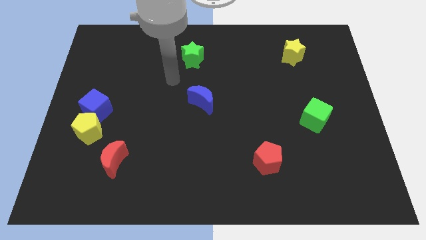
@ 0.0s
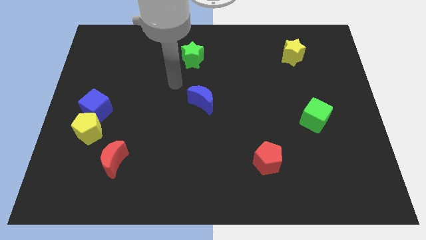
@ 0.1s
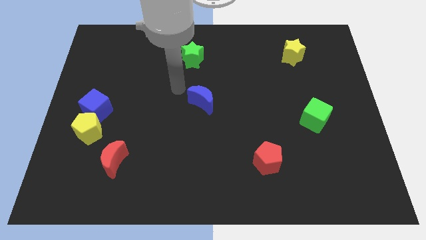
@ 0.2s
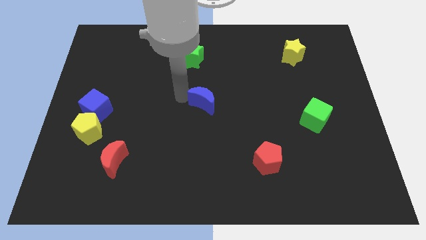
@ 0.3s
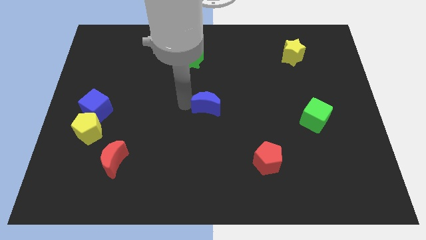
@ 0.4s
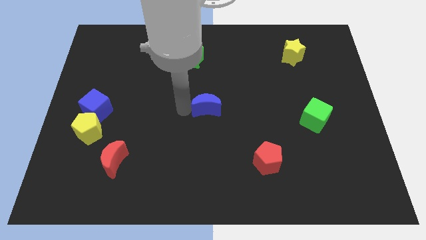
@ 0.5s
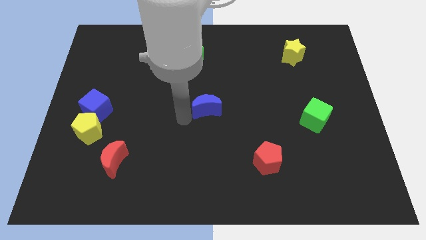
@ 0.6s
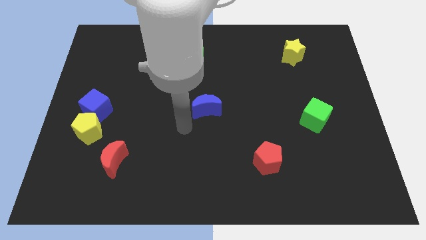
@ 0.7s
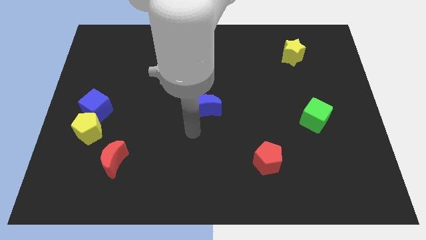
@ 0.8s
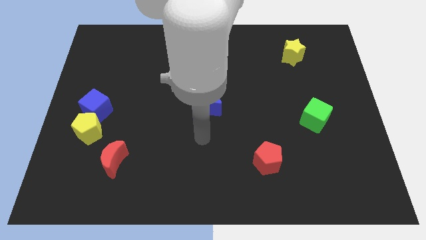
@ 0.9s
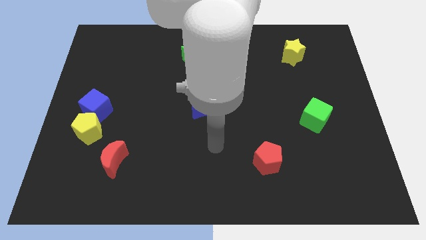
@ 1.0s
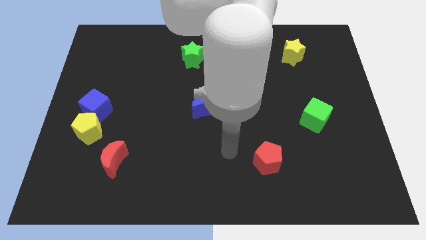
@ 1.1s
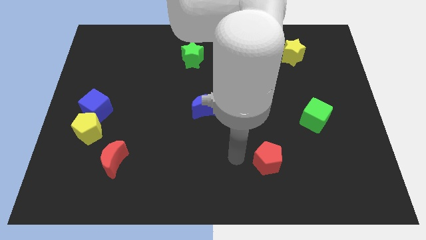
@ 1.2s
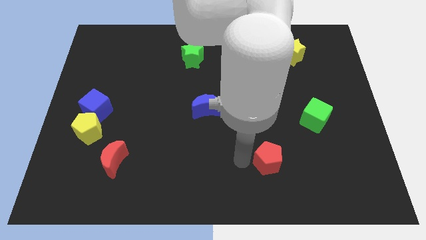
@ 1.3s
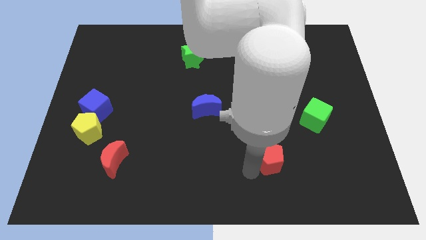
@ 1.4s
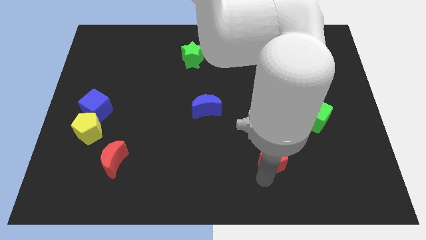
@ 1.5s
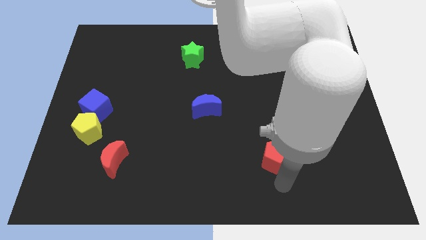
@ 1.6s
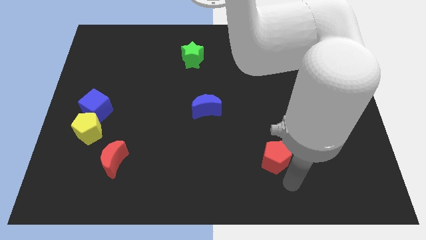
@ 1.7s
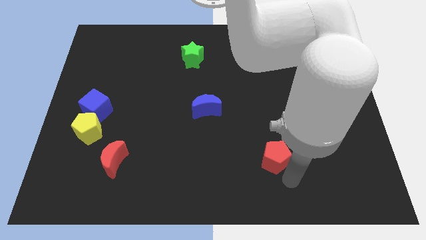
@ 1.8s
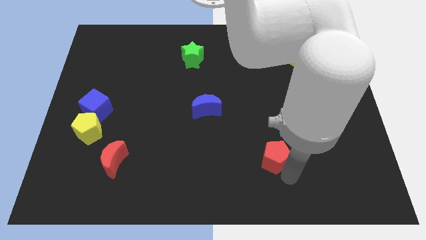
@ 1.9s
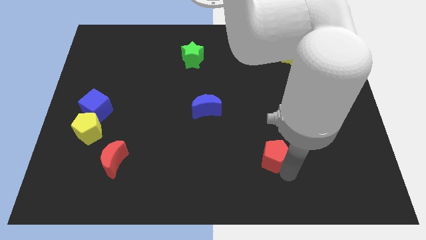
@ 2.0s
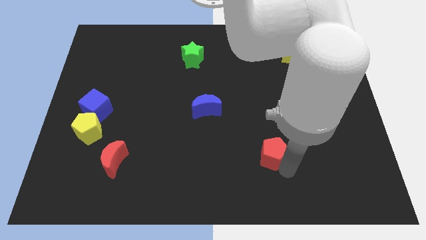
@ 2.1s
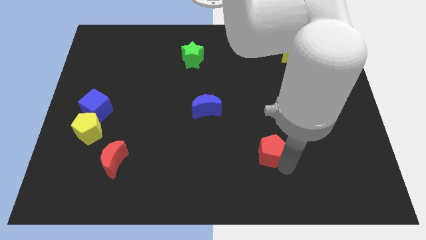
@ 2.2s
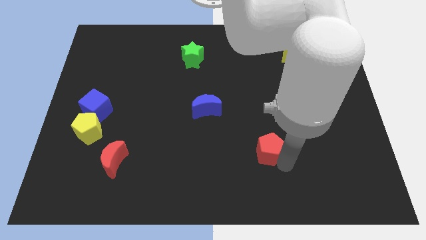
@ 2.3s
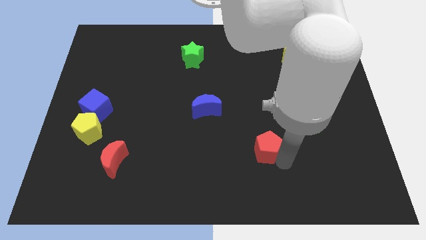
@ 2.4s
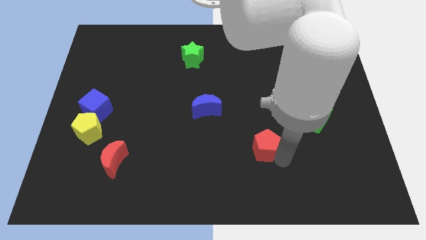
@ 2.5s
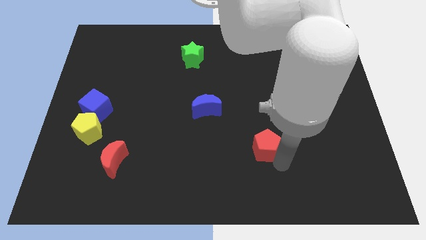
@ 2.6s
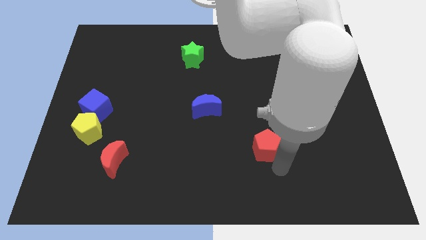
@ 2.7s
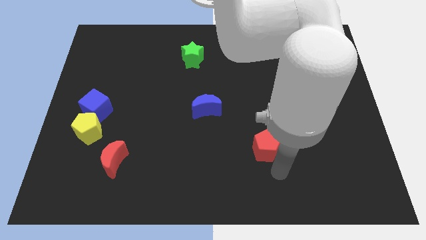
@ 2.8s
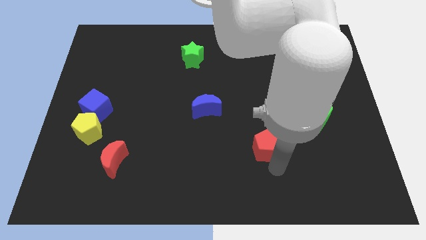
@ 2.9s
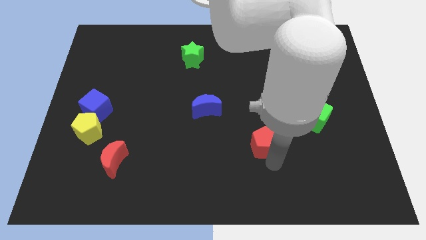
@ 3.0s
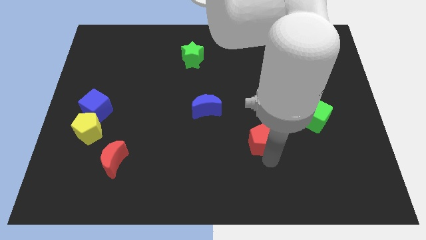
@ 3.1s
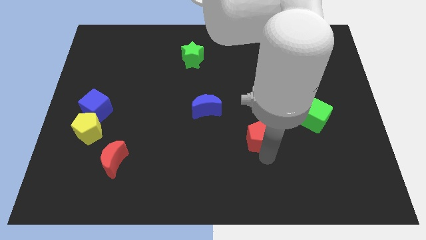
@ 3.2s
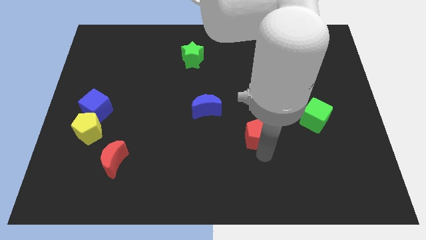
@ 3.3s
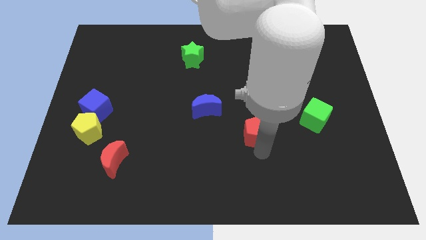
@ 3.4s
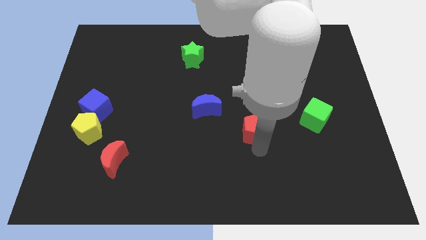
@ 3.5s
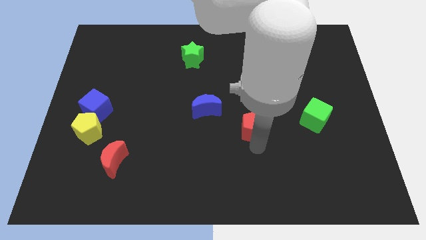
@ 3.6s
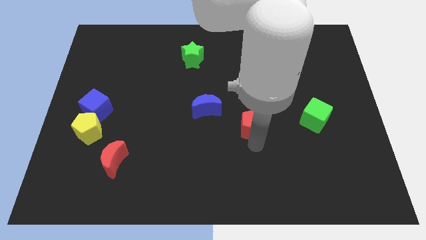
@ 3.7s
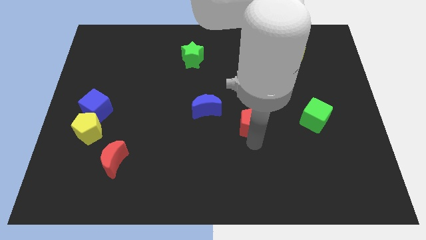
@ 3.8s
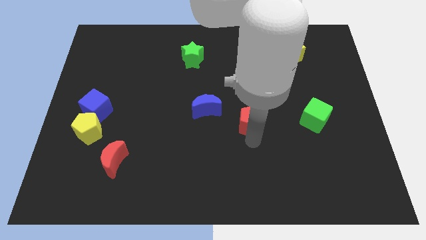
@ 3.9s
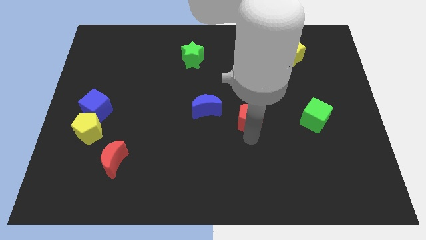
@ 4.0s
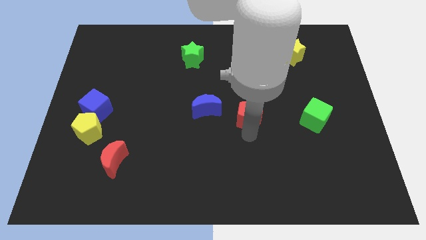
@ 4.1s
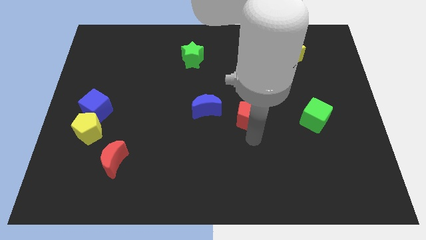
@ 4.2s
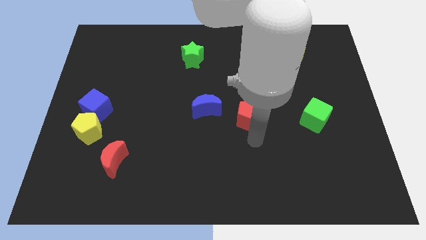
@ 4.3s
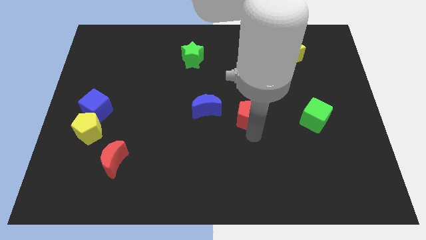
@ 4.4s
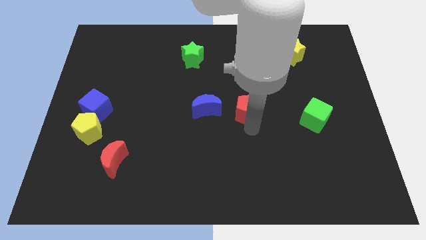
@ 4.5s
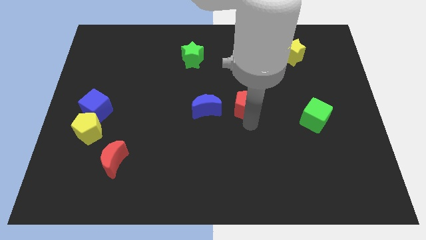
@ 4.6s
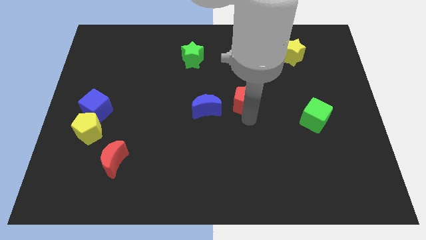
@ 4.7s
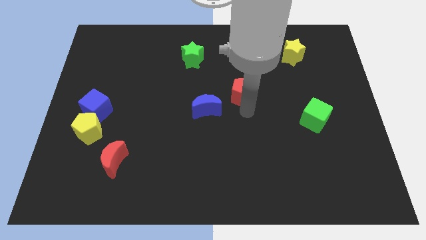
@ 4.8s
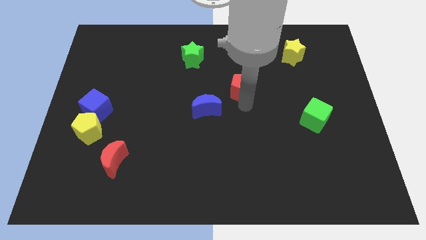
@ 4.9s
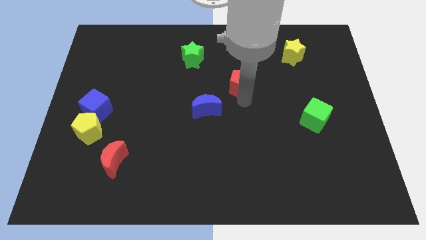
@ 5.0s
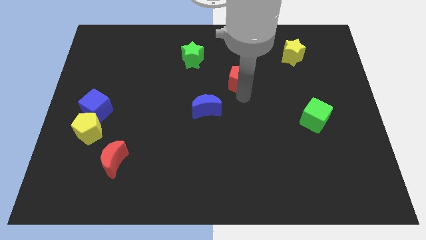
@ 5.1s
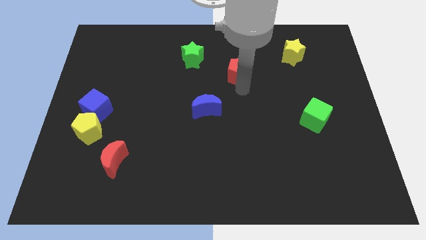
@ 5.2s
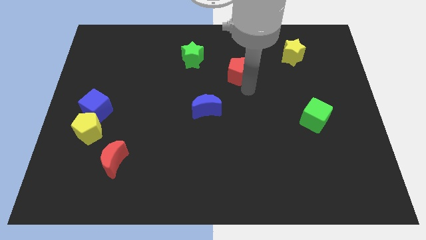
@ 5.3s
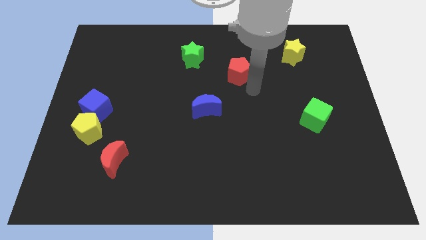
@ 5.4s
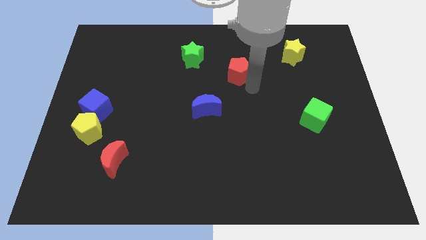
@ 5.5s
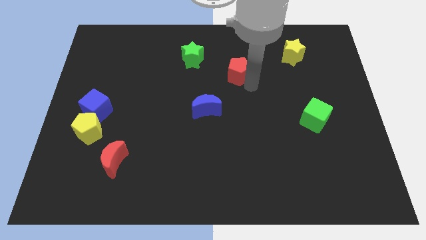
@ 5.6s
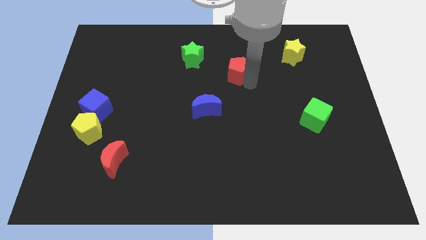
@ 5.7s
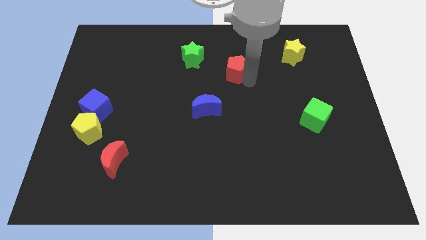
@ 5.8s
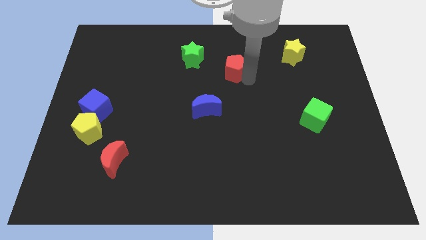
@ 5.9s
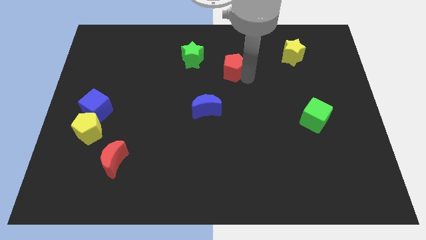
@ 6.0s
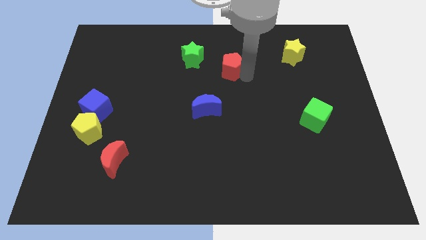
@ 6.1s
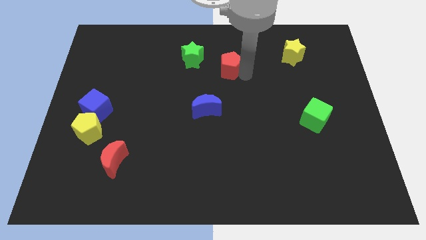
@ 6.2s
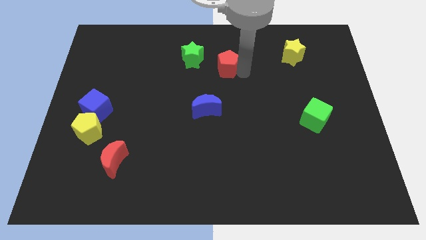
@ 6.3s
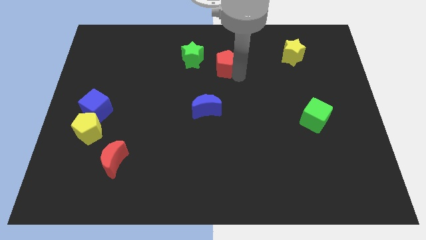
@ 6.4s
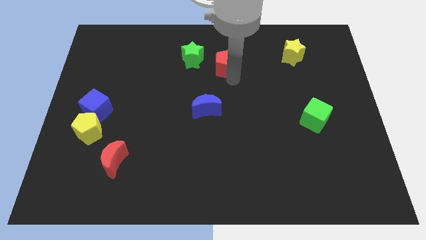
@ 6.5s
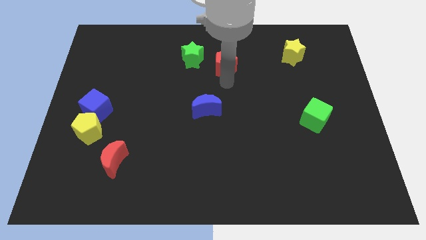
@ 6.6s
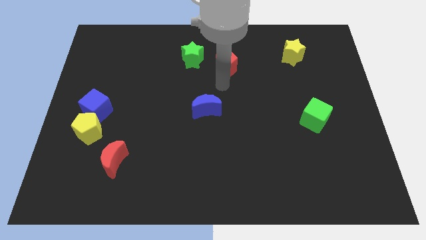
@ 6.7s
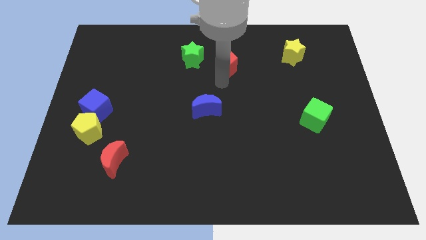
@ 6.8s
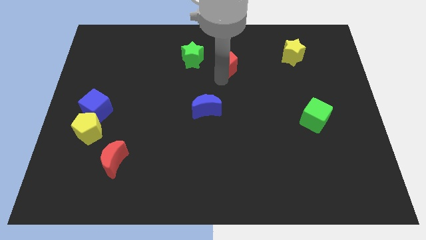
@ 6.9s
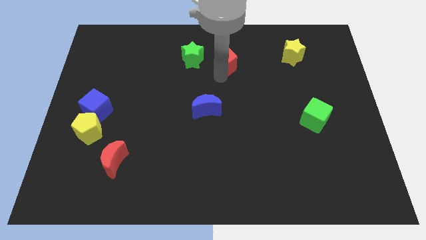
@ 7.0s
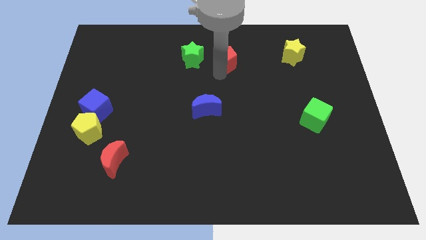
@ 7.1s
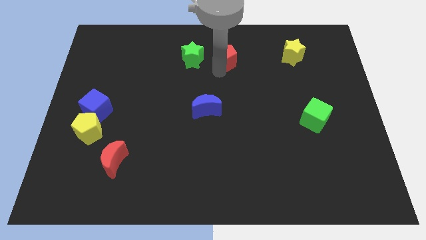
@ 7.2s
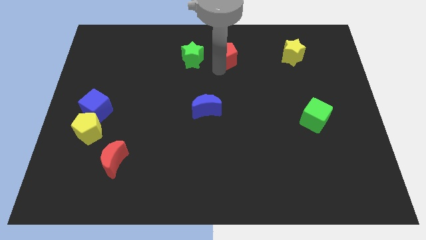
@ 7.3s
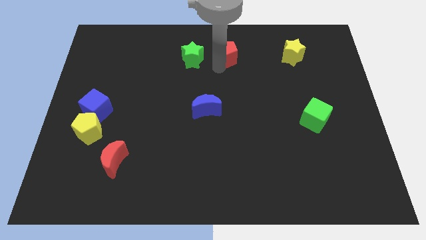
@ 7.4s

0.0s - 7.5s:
put the red pentagon to the towards your base
